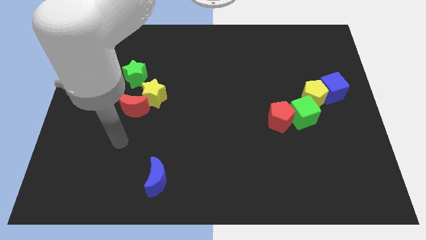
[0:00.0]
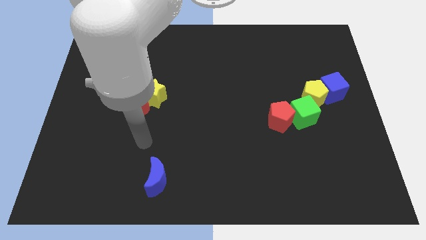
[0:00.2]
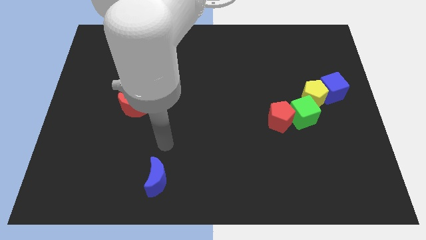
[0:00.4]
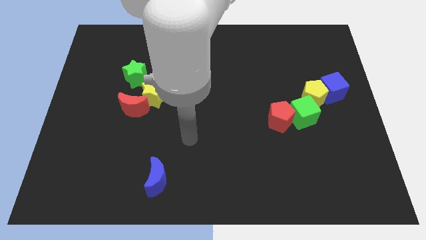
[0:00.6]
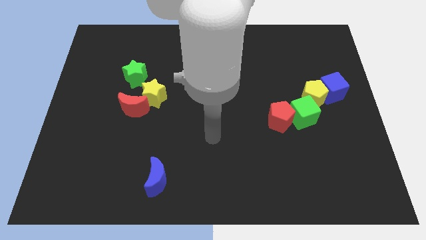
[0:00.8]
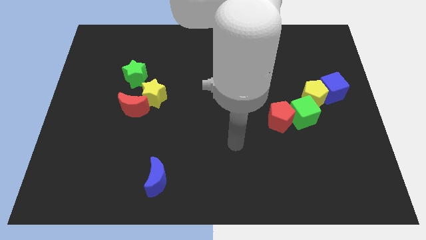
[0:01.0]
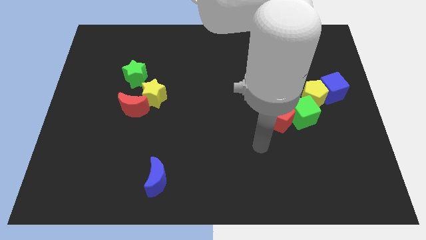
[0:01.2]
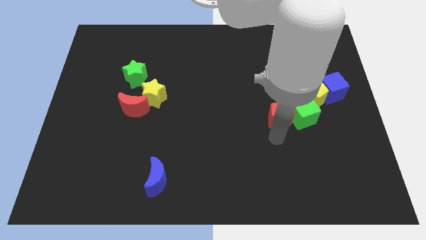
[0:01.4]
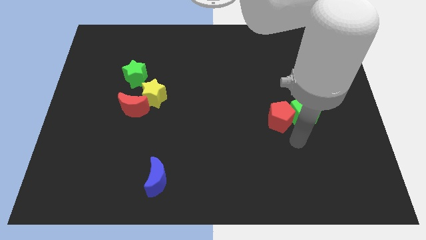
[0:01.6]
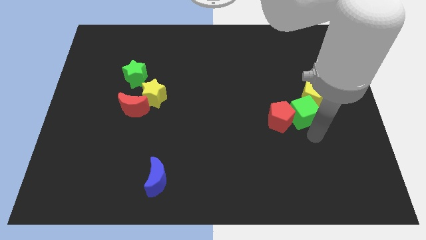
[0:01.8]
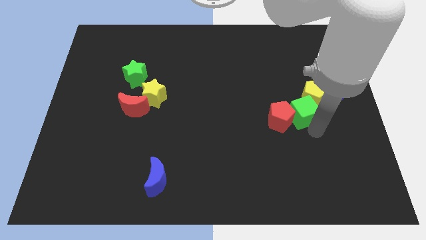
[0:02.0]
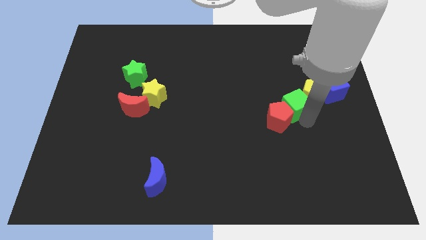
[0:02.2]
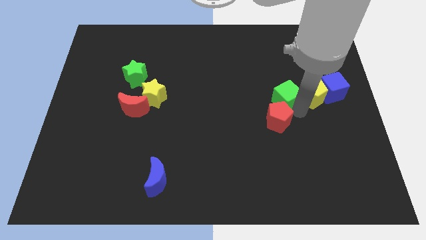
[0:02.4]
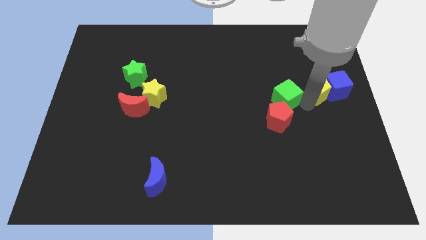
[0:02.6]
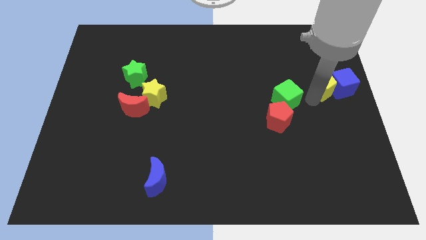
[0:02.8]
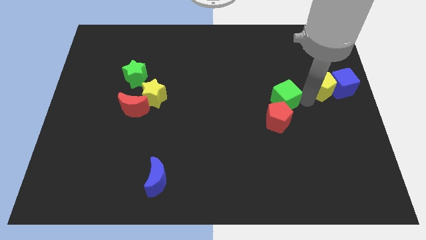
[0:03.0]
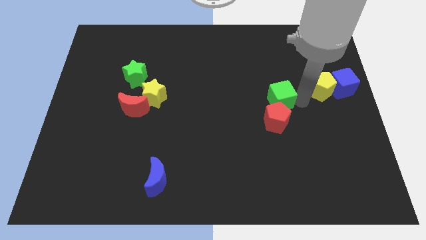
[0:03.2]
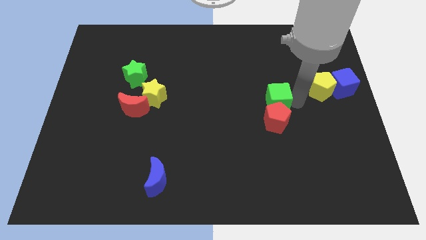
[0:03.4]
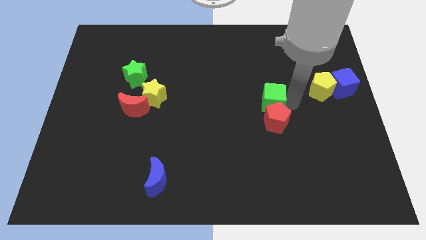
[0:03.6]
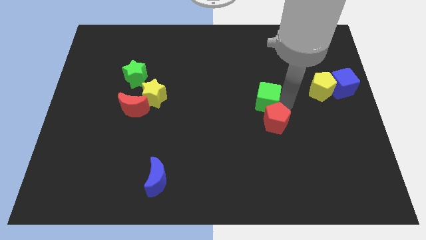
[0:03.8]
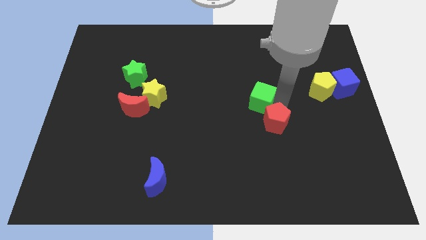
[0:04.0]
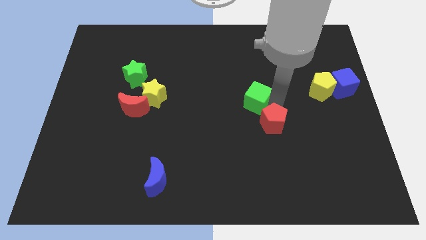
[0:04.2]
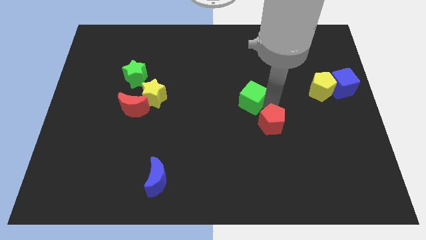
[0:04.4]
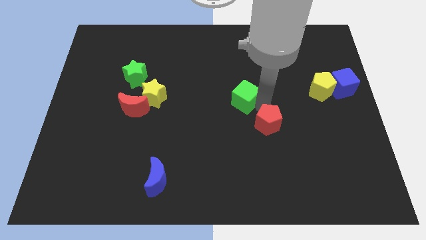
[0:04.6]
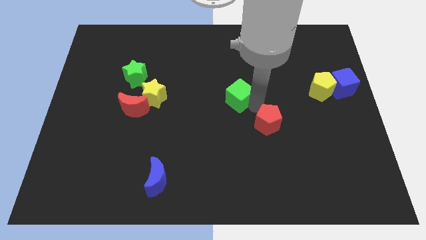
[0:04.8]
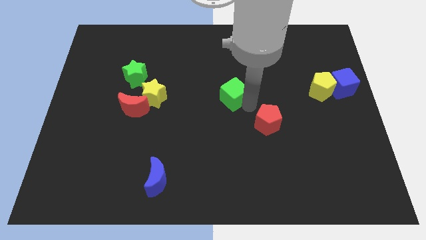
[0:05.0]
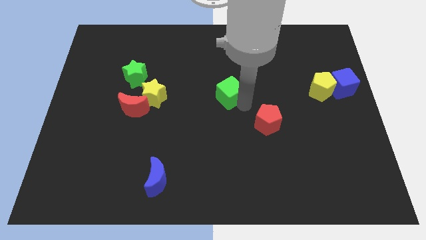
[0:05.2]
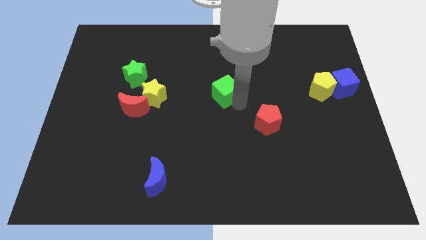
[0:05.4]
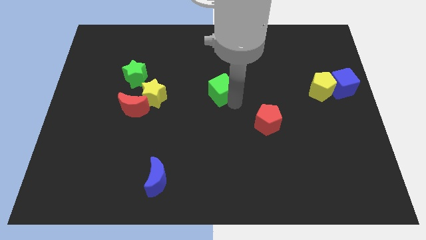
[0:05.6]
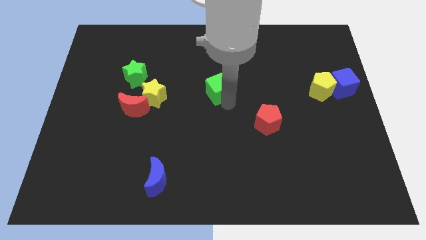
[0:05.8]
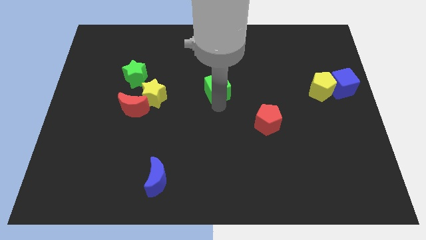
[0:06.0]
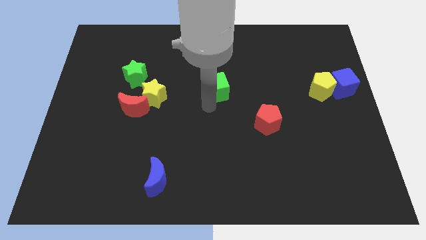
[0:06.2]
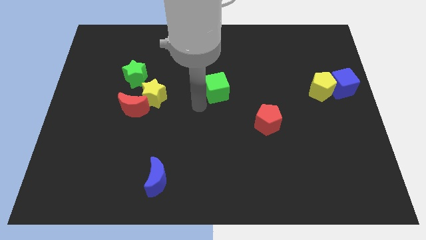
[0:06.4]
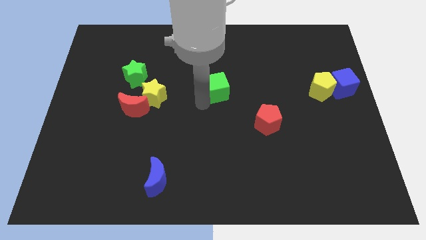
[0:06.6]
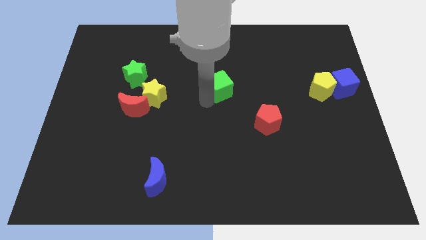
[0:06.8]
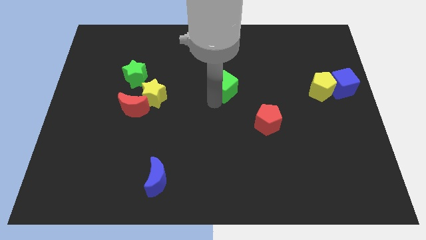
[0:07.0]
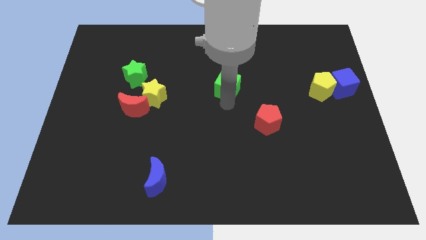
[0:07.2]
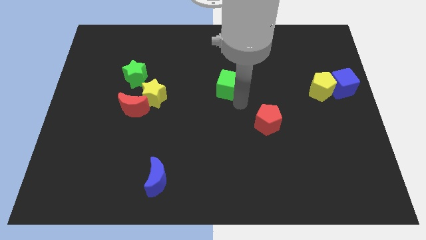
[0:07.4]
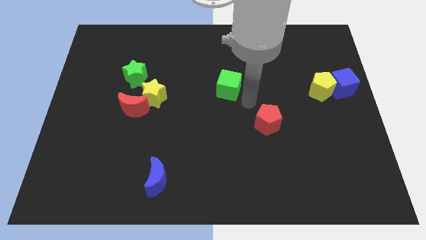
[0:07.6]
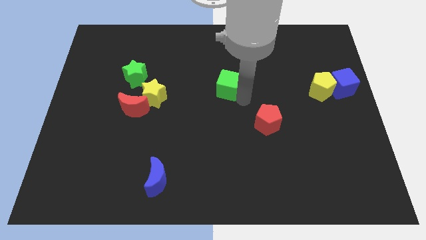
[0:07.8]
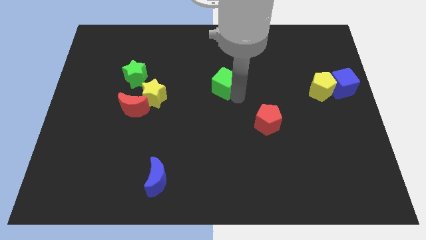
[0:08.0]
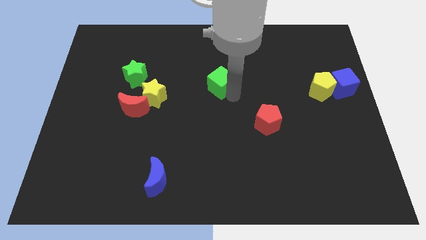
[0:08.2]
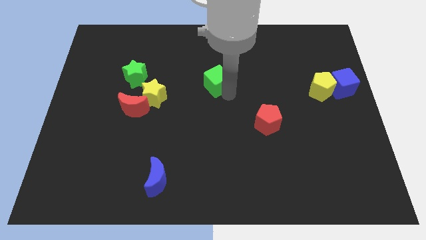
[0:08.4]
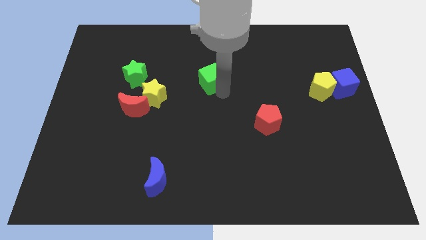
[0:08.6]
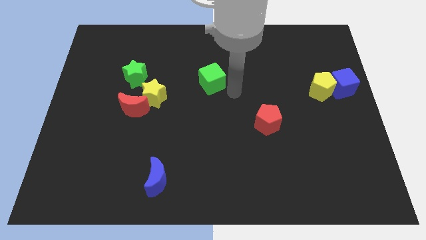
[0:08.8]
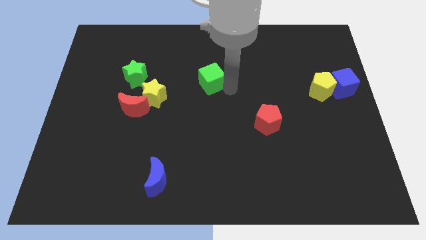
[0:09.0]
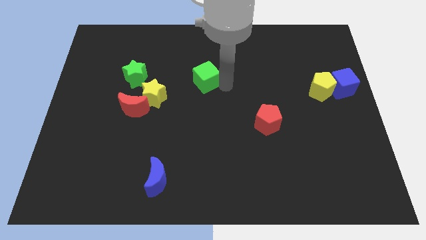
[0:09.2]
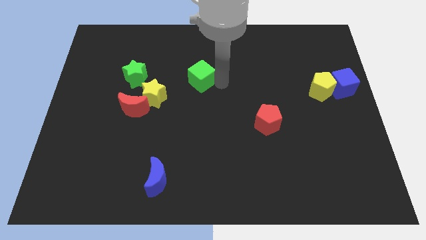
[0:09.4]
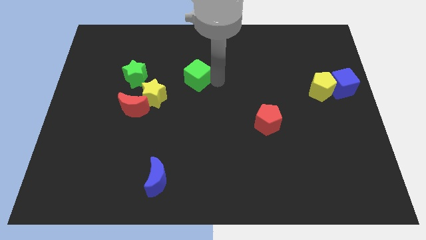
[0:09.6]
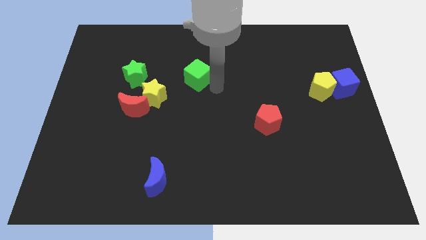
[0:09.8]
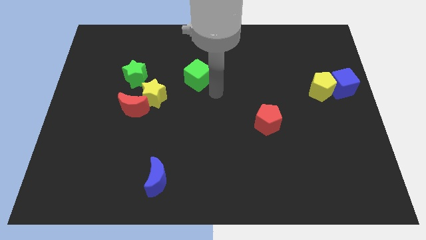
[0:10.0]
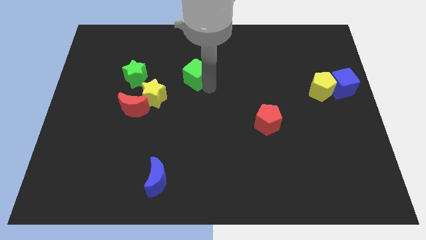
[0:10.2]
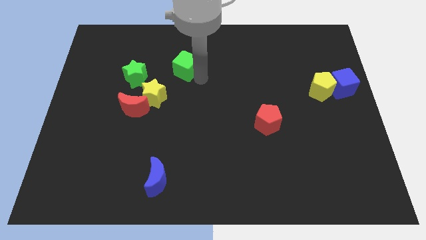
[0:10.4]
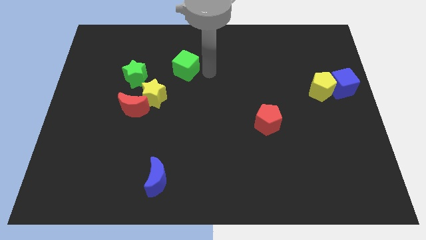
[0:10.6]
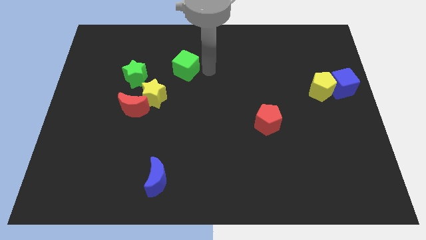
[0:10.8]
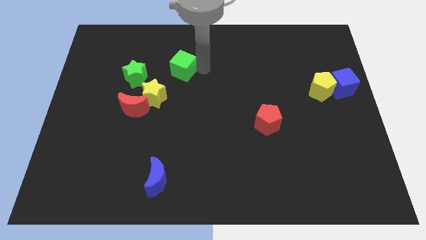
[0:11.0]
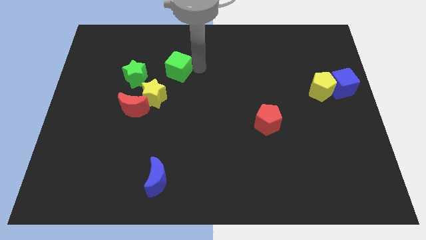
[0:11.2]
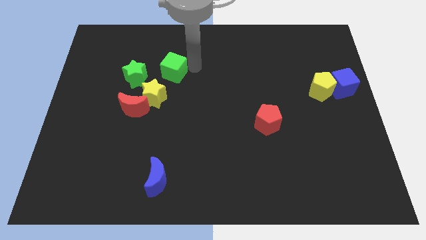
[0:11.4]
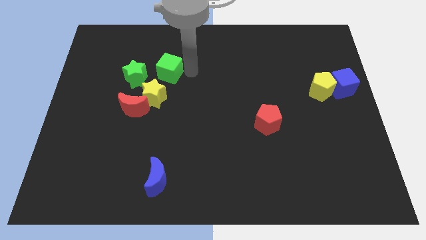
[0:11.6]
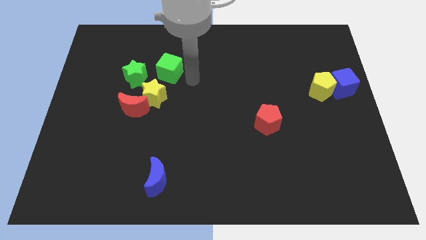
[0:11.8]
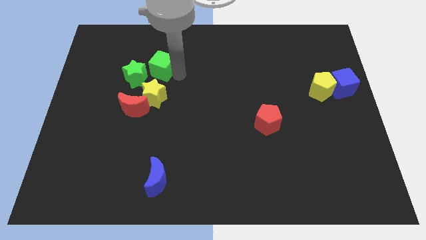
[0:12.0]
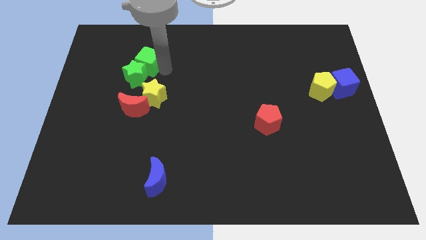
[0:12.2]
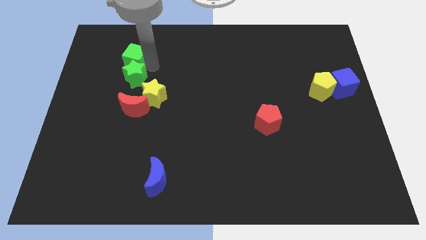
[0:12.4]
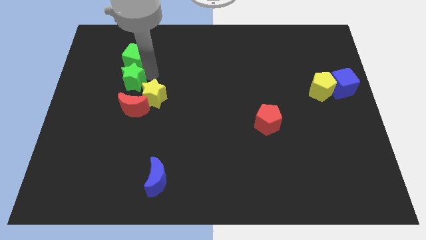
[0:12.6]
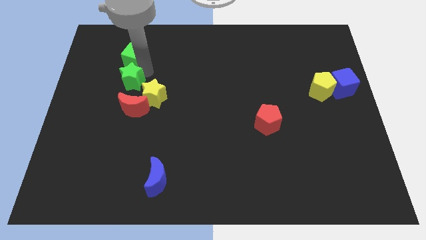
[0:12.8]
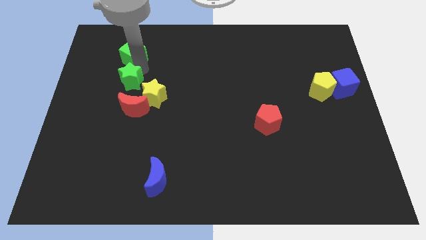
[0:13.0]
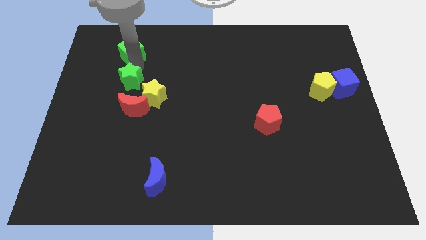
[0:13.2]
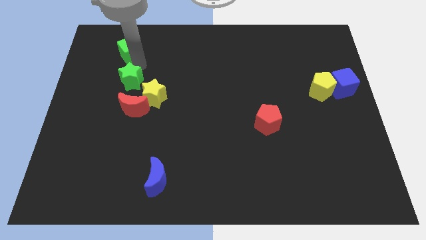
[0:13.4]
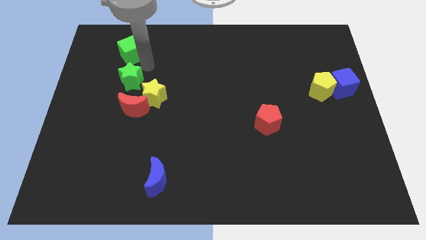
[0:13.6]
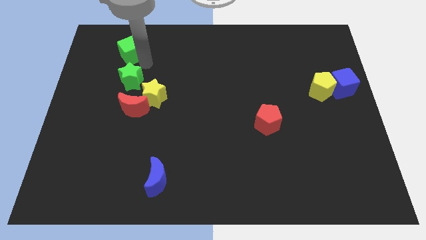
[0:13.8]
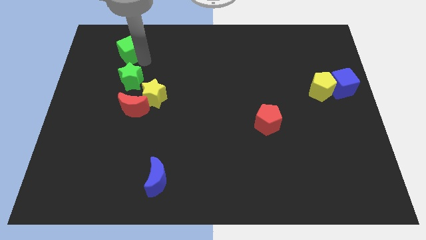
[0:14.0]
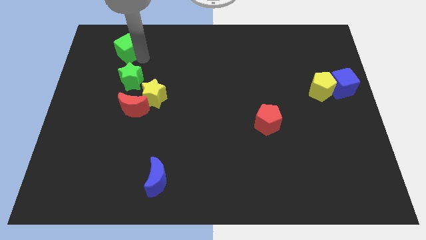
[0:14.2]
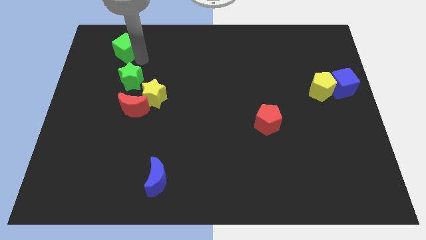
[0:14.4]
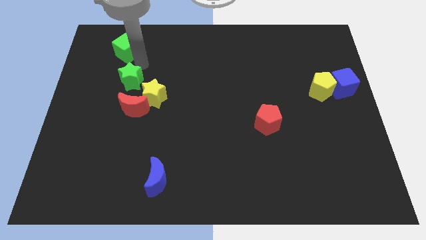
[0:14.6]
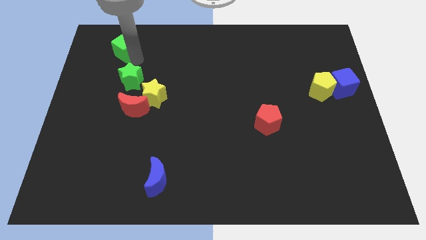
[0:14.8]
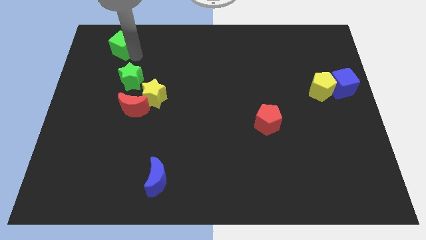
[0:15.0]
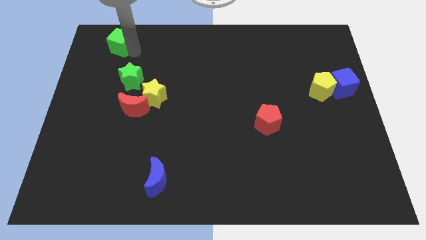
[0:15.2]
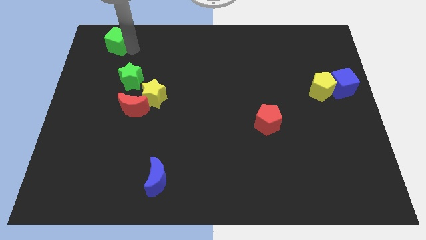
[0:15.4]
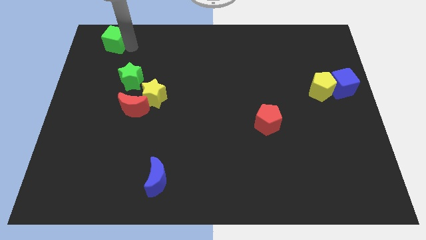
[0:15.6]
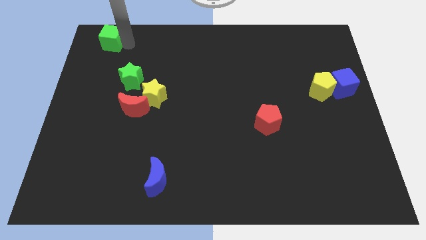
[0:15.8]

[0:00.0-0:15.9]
move the green cube to the top left

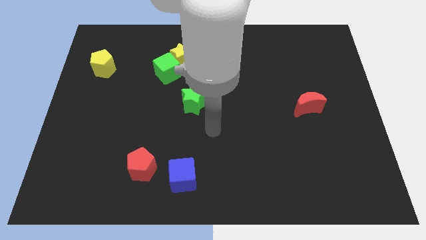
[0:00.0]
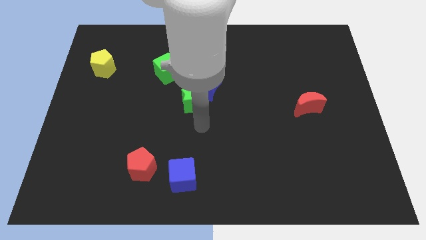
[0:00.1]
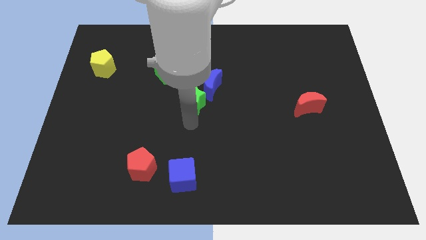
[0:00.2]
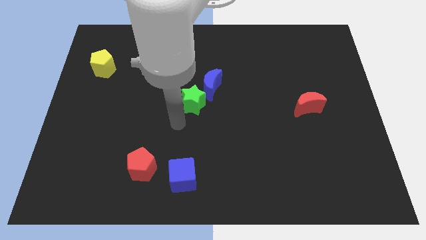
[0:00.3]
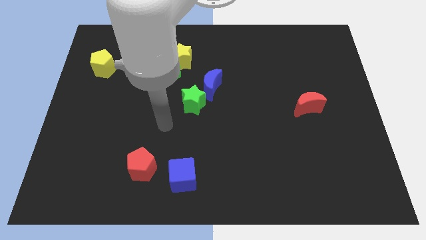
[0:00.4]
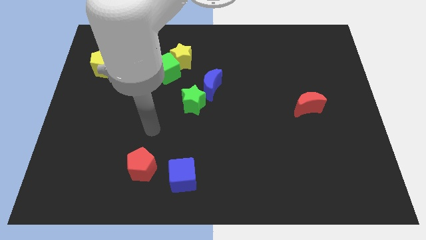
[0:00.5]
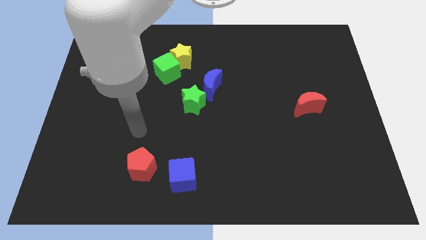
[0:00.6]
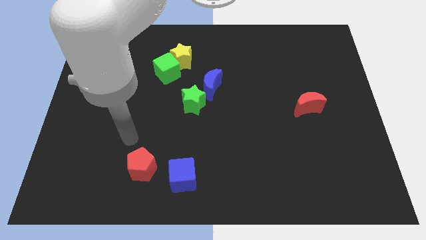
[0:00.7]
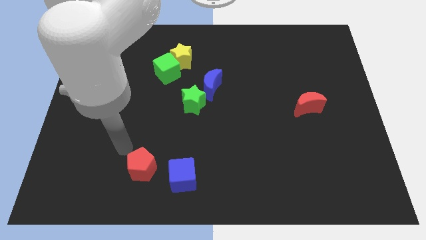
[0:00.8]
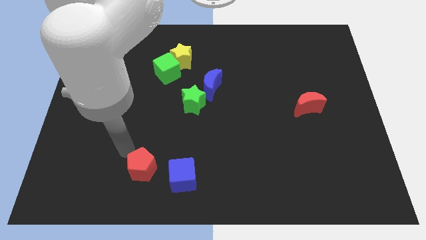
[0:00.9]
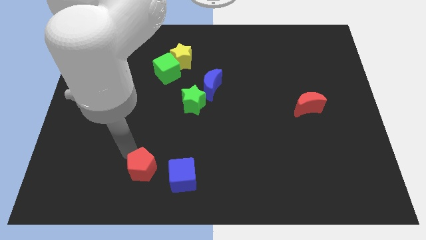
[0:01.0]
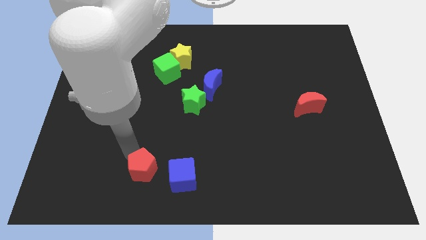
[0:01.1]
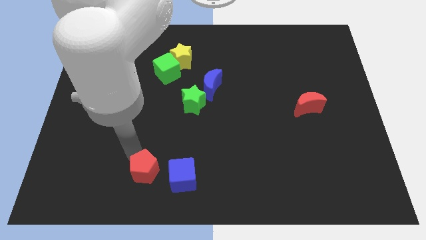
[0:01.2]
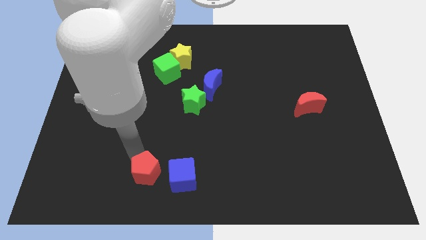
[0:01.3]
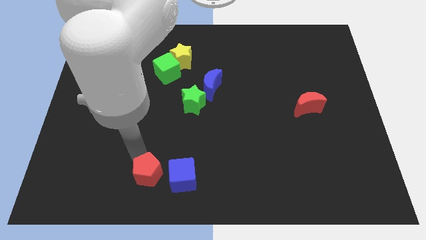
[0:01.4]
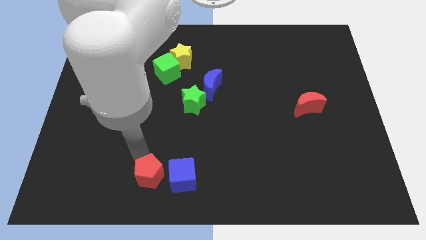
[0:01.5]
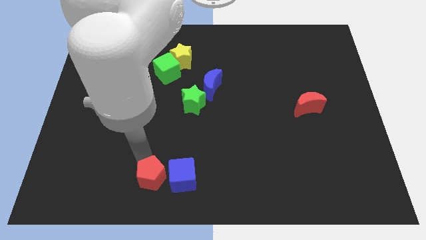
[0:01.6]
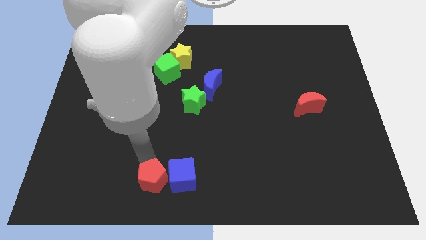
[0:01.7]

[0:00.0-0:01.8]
put the red pentagon to the bottom side
